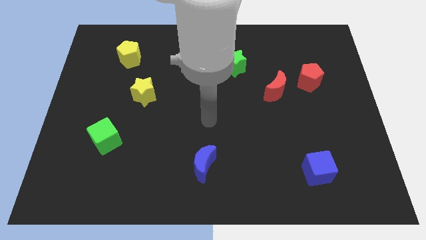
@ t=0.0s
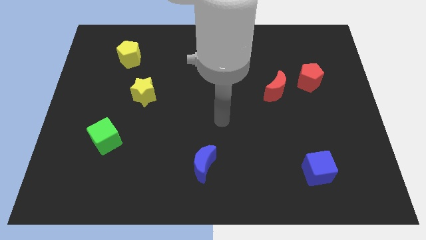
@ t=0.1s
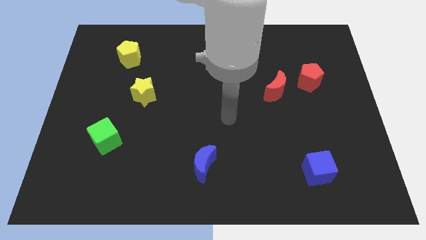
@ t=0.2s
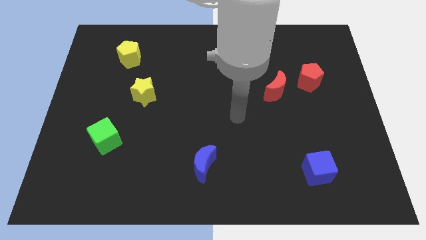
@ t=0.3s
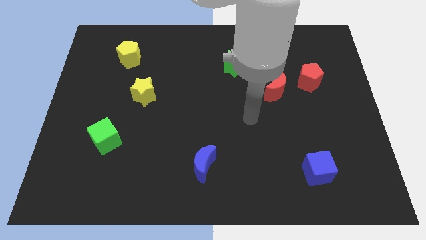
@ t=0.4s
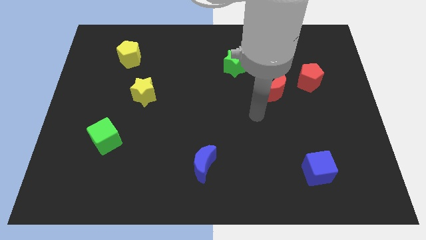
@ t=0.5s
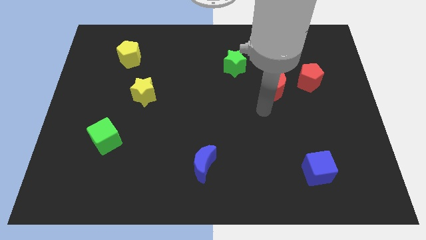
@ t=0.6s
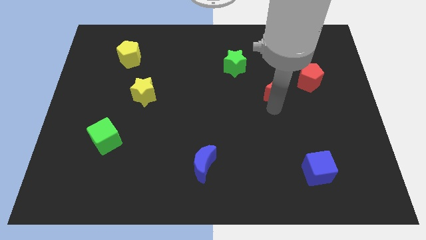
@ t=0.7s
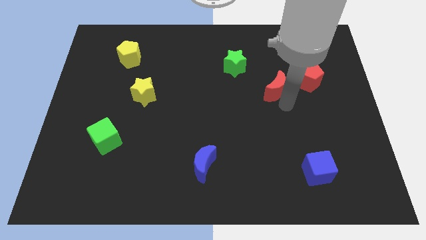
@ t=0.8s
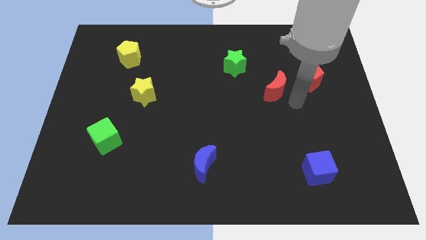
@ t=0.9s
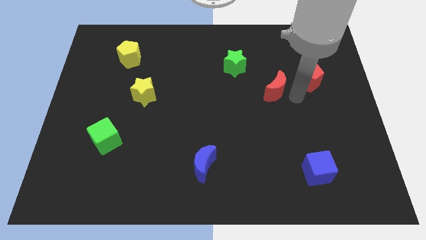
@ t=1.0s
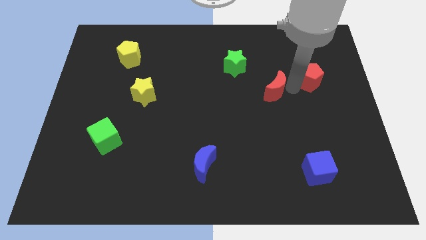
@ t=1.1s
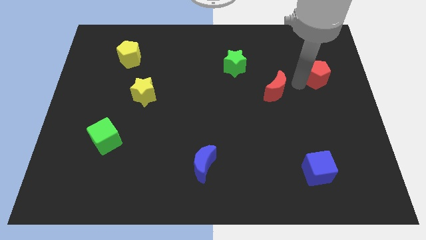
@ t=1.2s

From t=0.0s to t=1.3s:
separate the red moon from the red pentagon

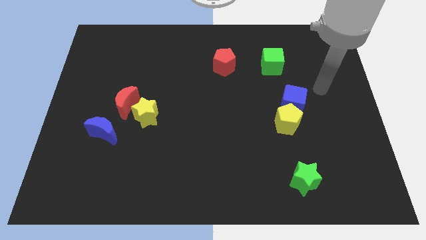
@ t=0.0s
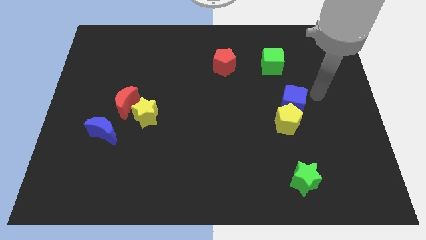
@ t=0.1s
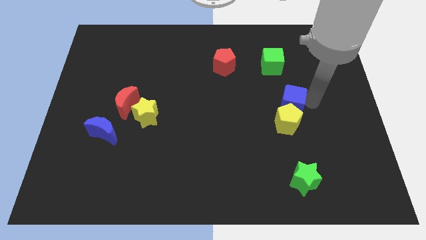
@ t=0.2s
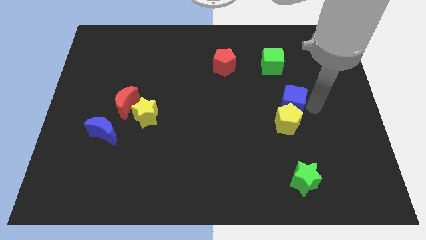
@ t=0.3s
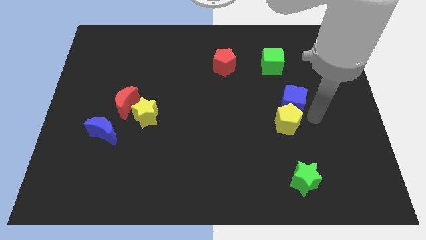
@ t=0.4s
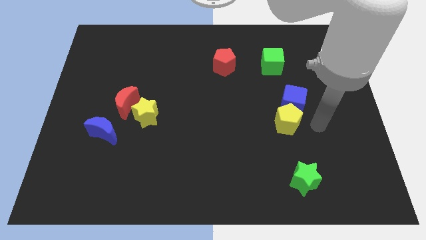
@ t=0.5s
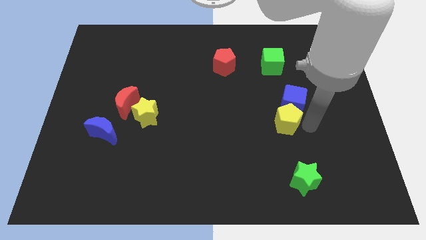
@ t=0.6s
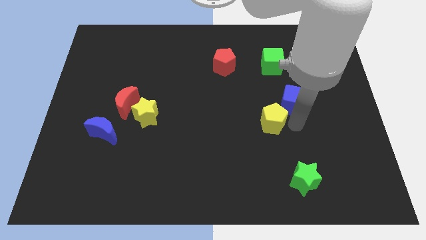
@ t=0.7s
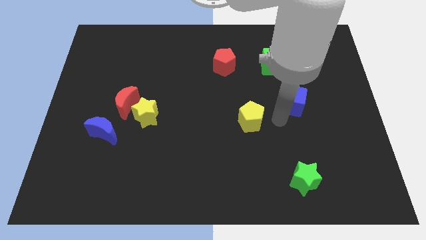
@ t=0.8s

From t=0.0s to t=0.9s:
move the blue cube away from the yellow pentagon

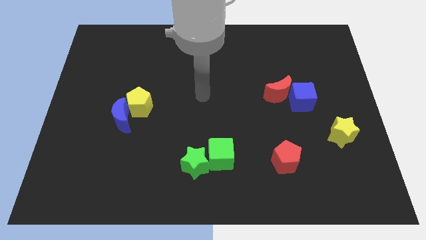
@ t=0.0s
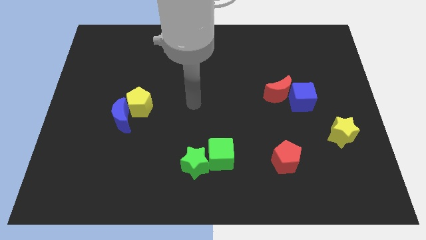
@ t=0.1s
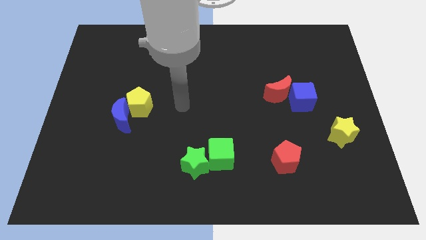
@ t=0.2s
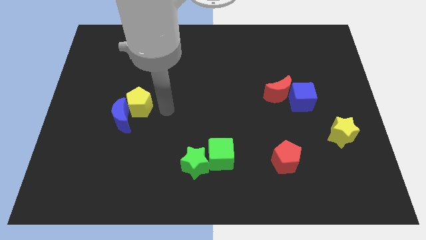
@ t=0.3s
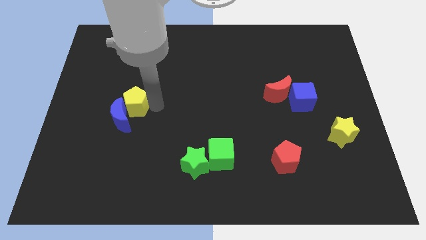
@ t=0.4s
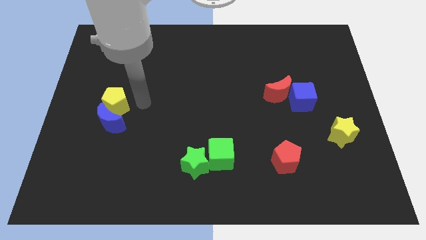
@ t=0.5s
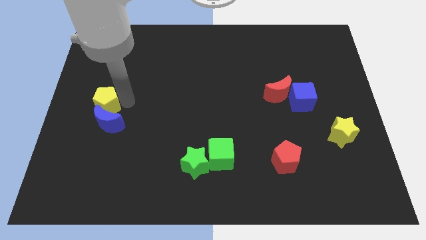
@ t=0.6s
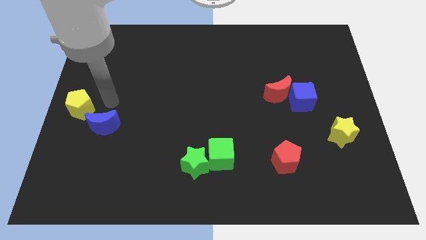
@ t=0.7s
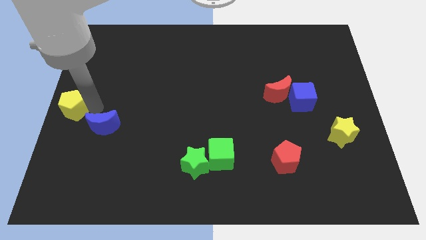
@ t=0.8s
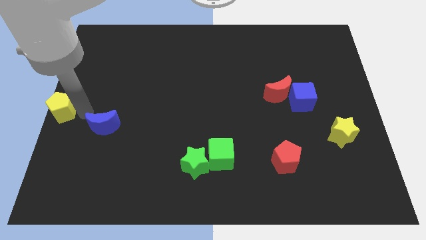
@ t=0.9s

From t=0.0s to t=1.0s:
pull the blue moon apart from the yellow pentagon

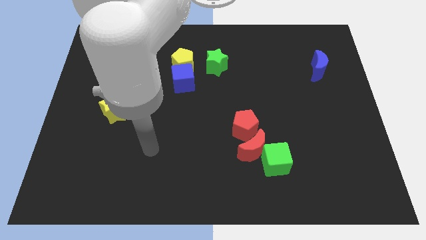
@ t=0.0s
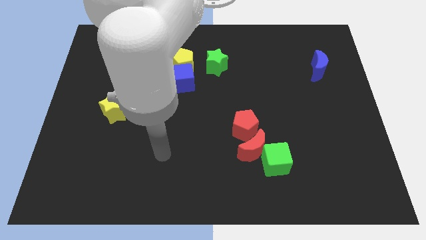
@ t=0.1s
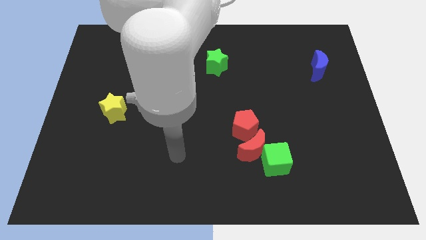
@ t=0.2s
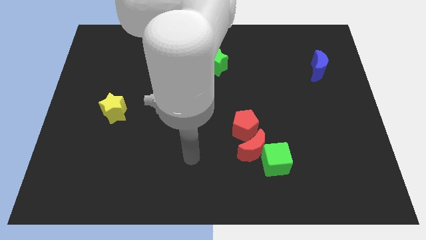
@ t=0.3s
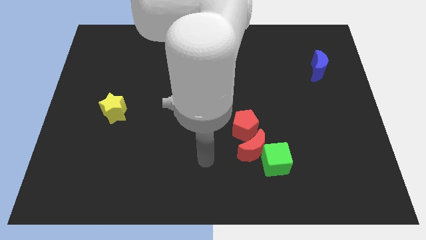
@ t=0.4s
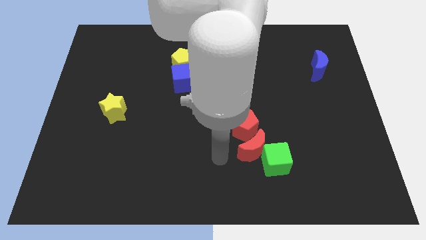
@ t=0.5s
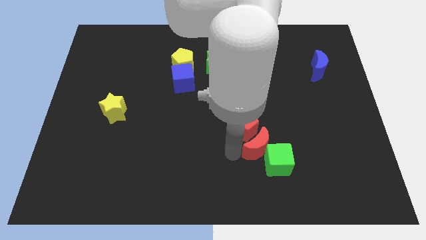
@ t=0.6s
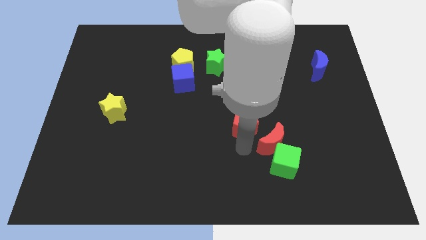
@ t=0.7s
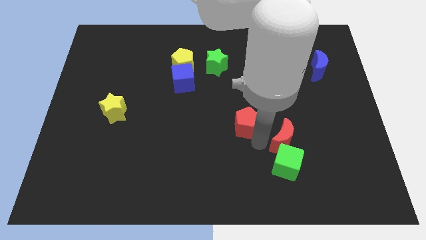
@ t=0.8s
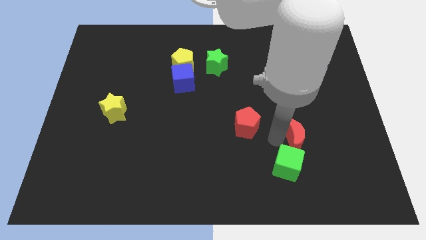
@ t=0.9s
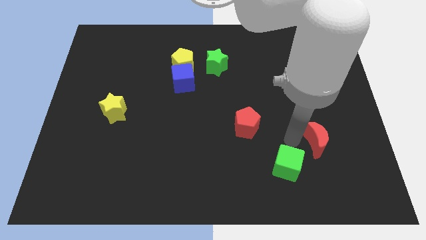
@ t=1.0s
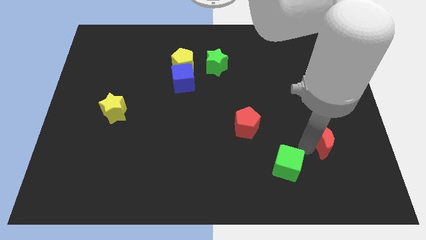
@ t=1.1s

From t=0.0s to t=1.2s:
pull the green cube apart from the red moon

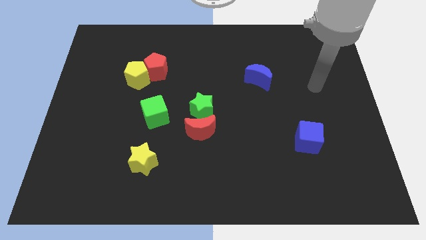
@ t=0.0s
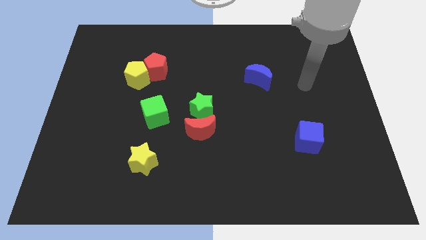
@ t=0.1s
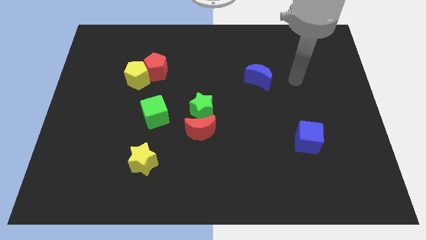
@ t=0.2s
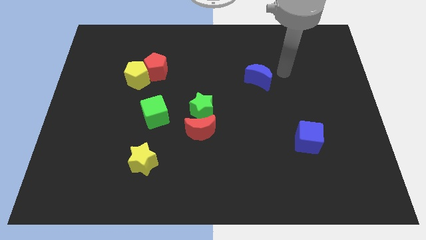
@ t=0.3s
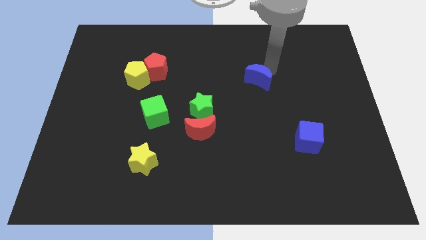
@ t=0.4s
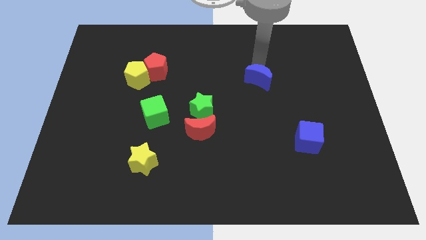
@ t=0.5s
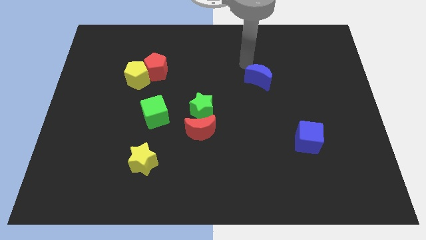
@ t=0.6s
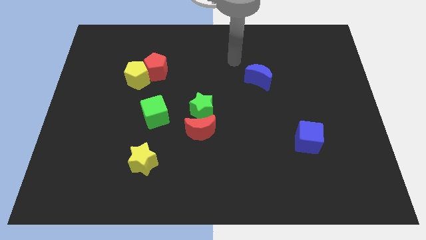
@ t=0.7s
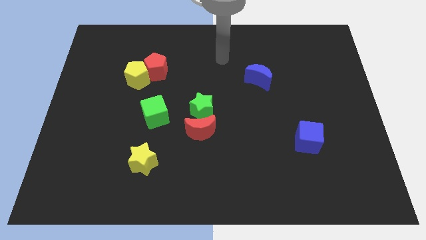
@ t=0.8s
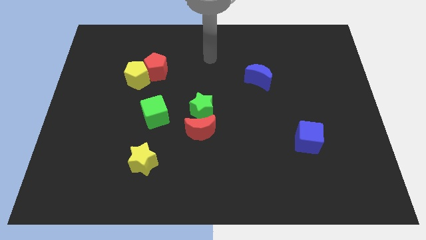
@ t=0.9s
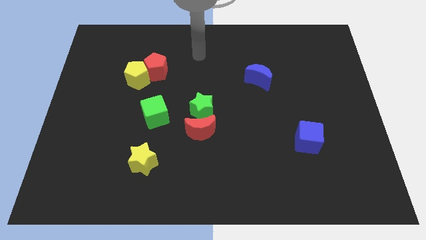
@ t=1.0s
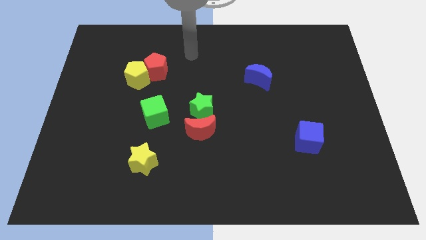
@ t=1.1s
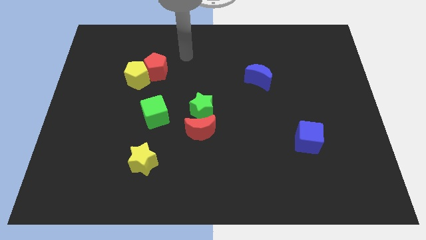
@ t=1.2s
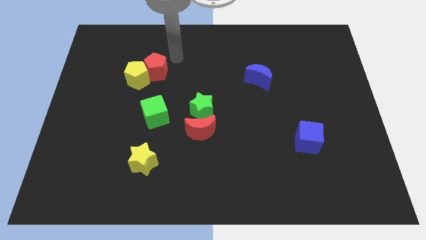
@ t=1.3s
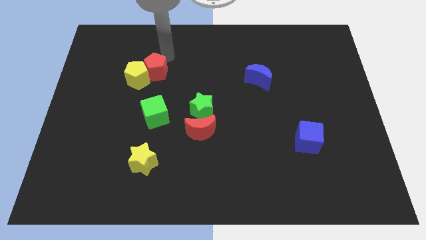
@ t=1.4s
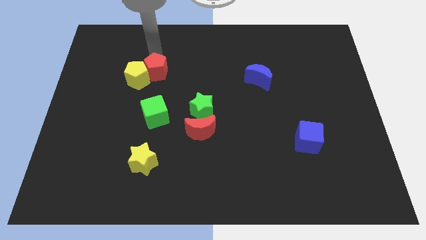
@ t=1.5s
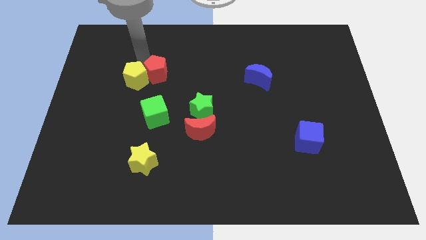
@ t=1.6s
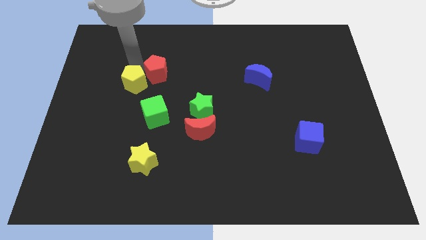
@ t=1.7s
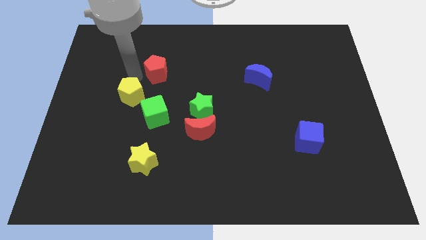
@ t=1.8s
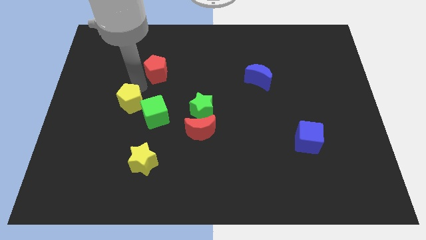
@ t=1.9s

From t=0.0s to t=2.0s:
separate the red pentagon from the yellow pentagon

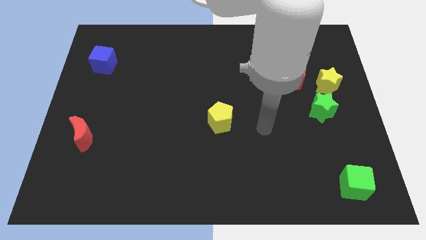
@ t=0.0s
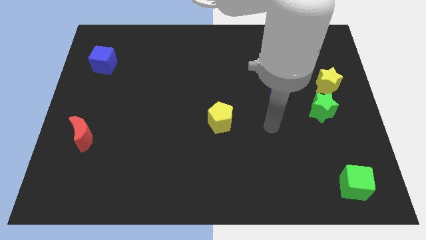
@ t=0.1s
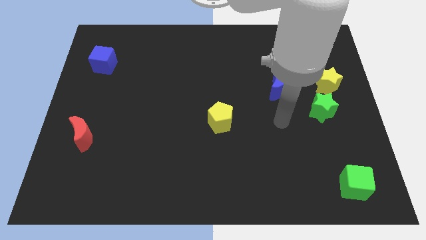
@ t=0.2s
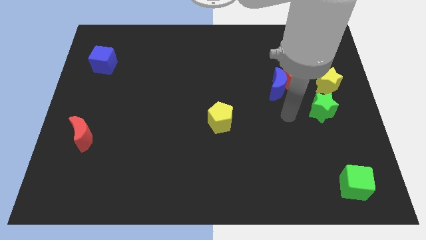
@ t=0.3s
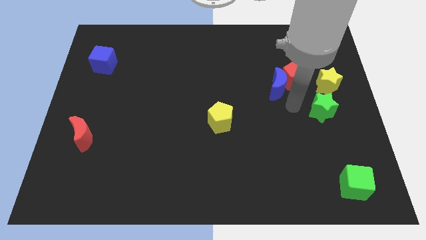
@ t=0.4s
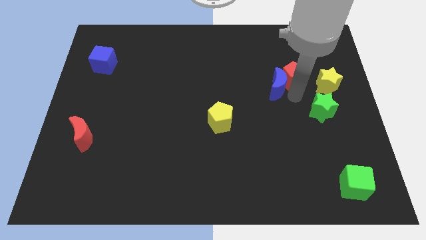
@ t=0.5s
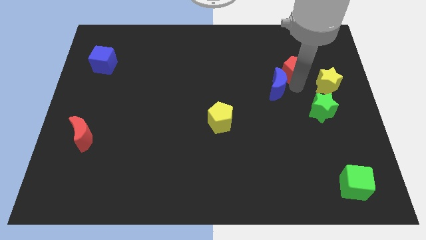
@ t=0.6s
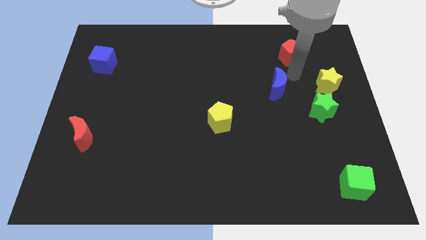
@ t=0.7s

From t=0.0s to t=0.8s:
separate the blue moon from the red pentagon

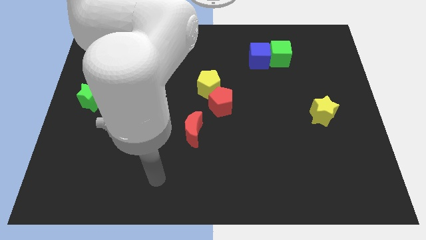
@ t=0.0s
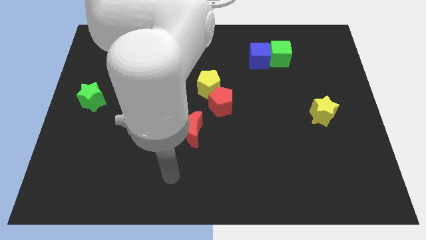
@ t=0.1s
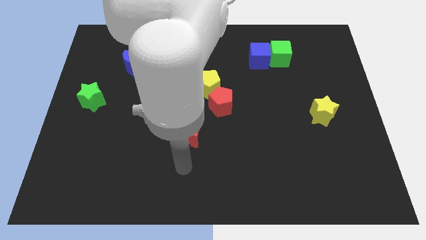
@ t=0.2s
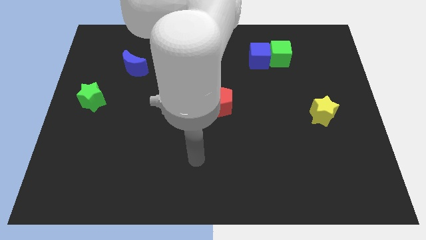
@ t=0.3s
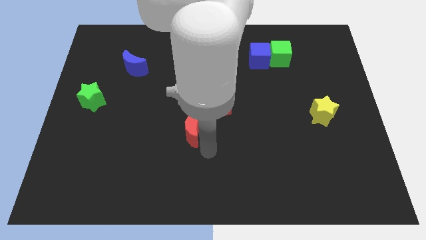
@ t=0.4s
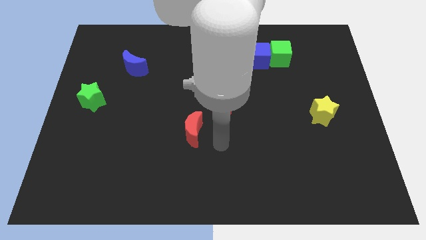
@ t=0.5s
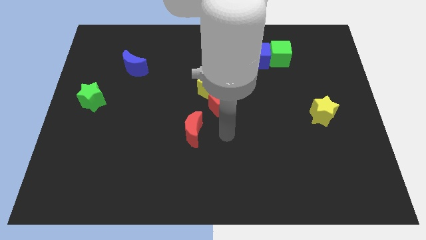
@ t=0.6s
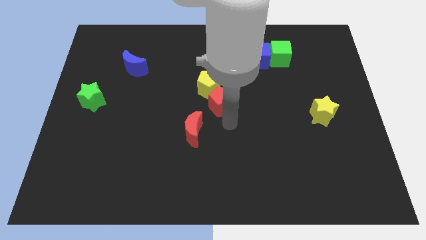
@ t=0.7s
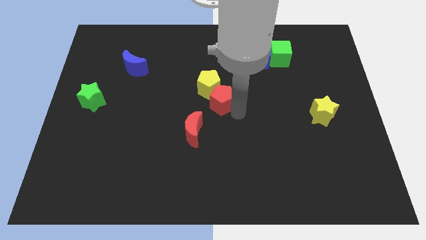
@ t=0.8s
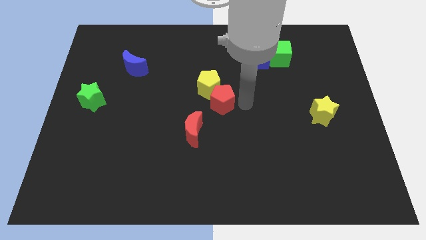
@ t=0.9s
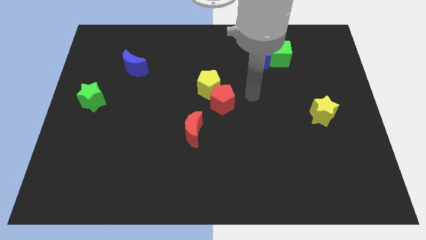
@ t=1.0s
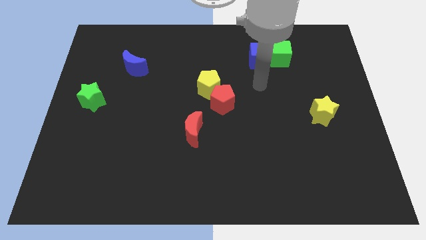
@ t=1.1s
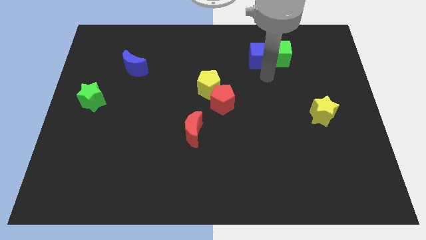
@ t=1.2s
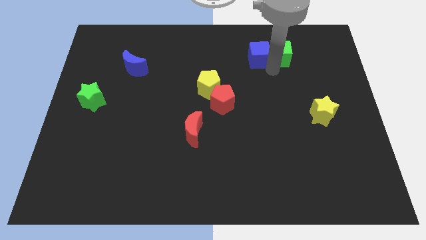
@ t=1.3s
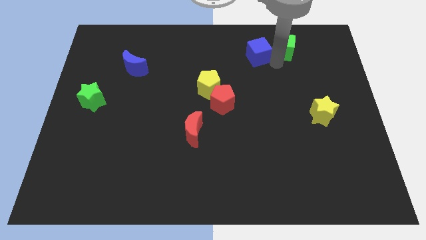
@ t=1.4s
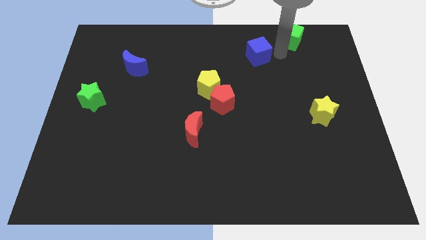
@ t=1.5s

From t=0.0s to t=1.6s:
pull the blue cube apart from the green cube

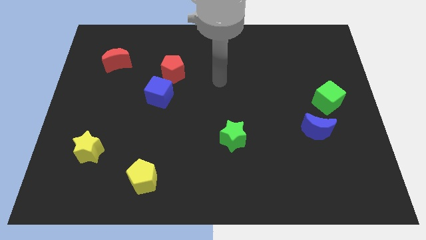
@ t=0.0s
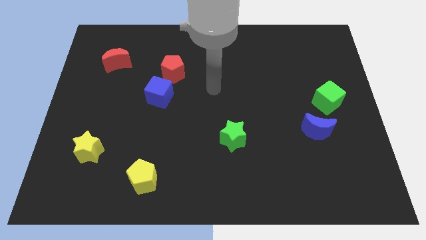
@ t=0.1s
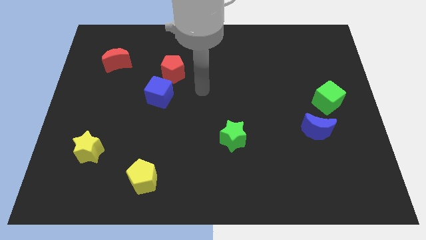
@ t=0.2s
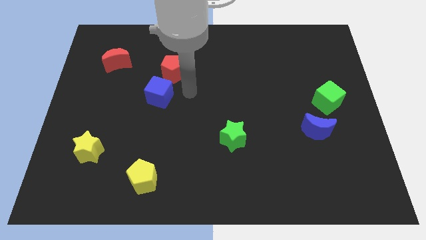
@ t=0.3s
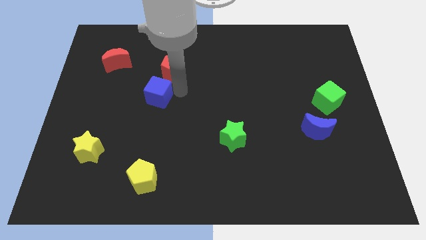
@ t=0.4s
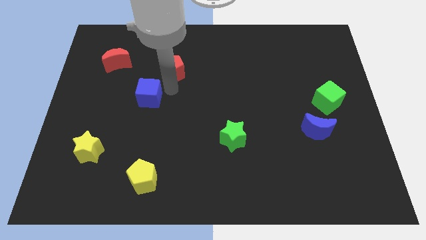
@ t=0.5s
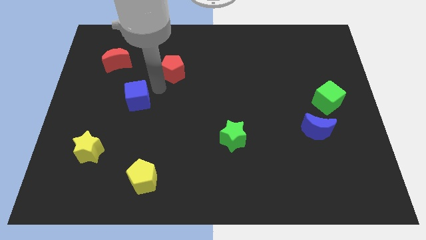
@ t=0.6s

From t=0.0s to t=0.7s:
separate the red pentagon from the blue cube
